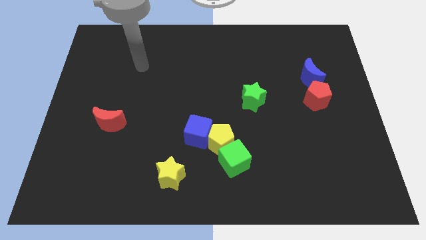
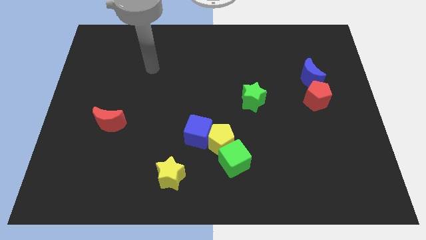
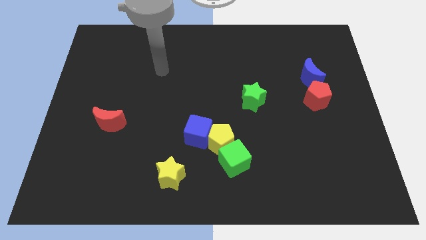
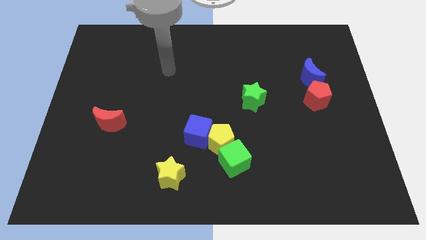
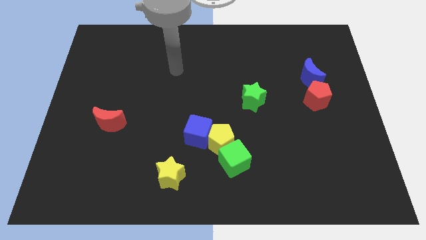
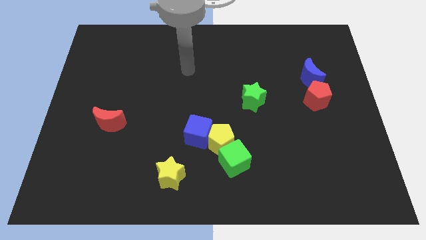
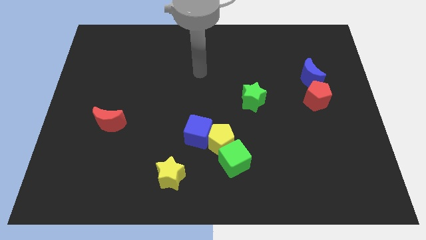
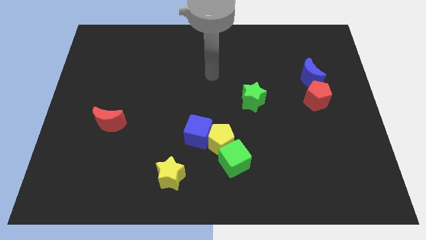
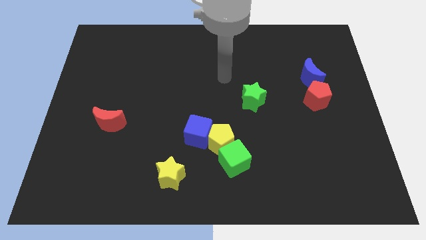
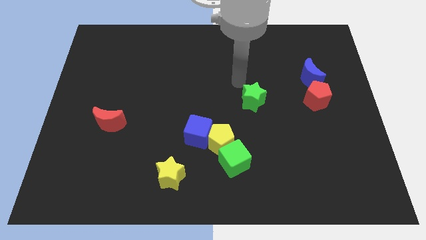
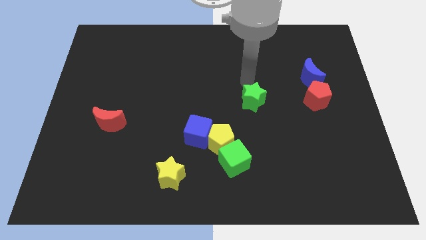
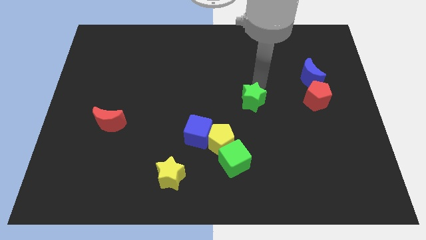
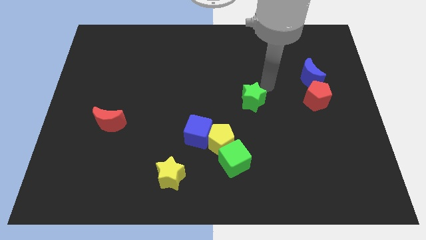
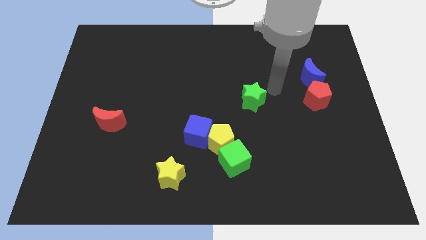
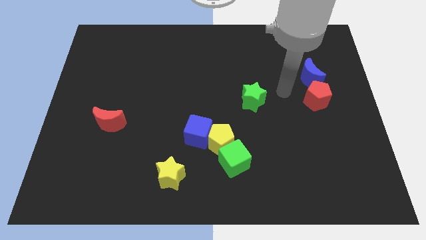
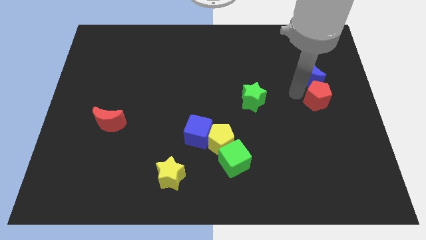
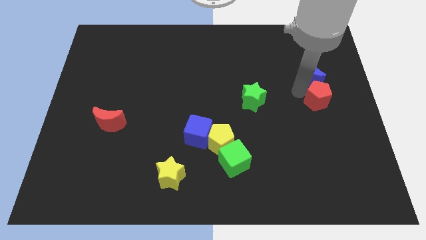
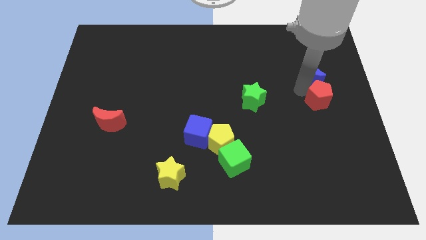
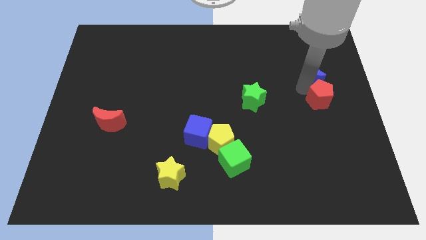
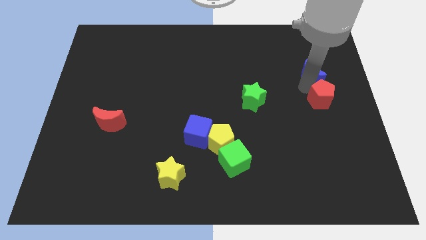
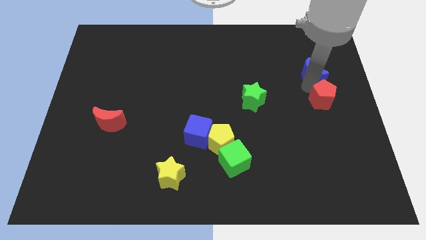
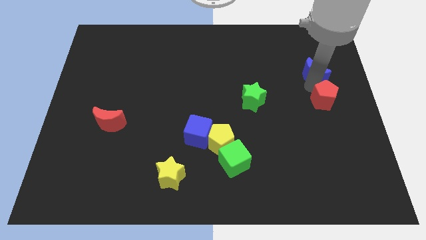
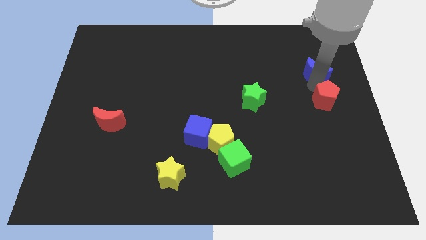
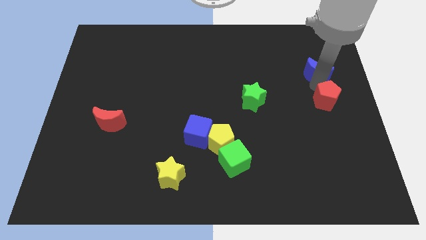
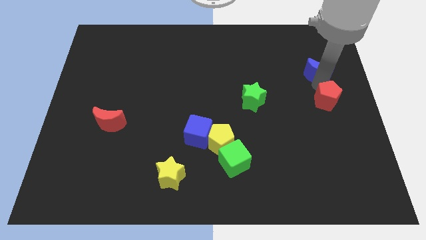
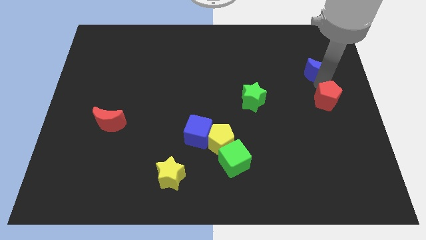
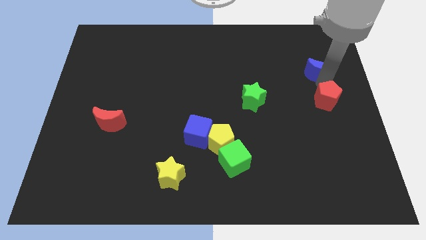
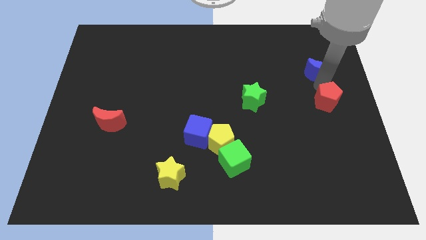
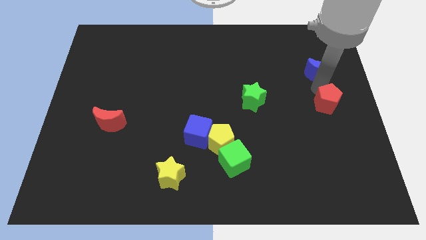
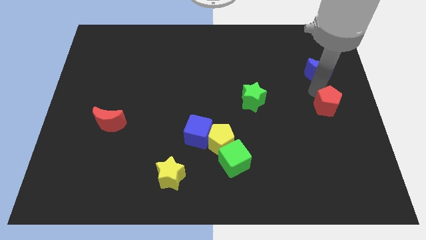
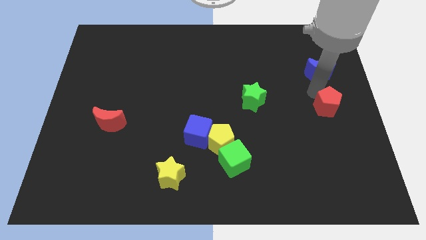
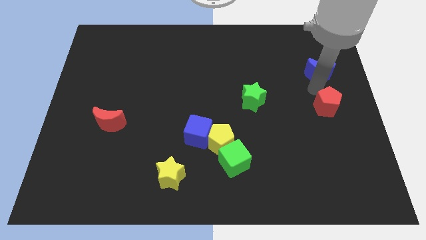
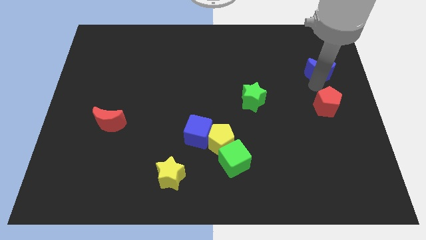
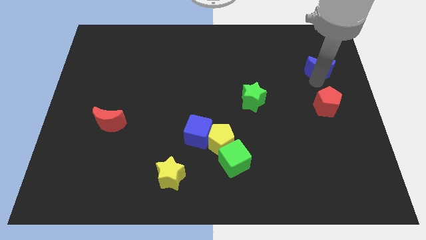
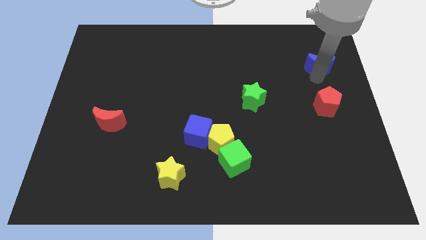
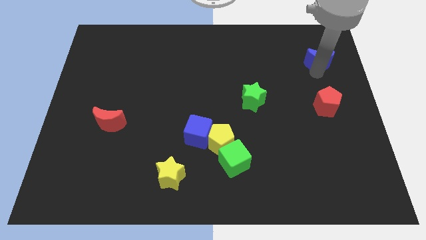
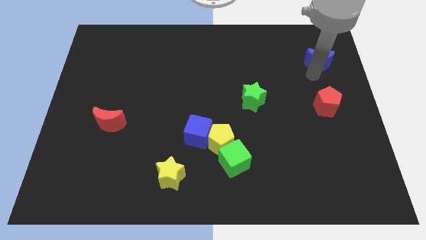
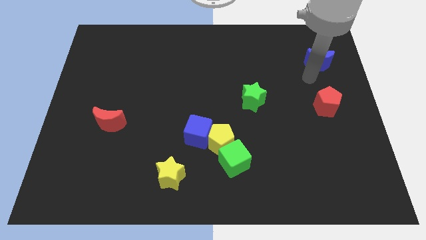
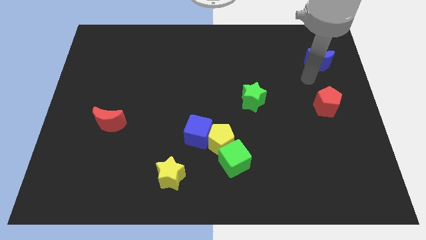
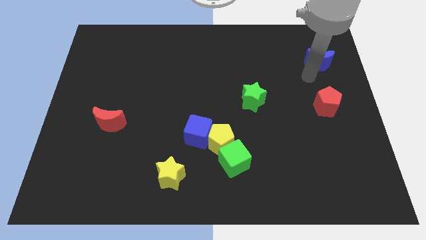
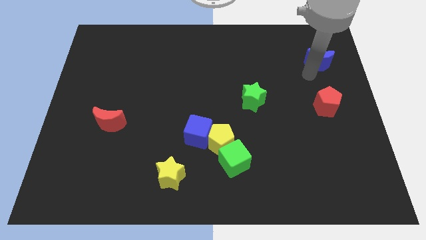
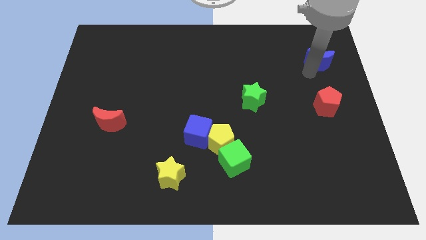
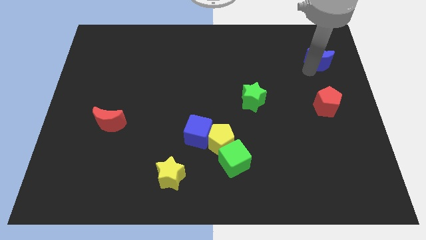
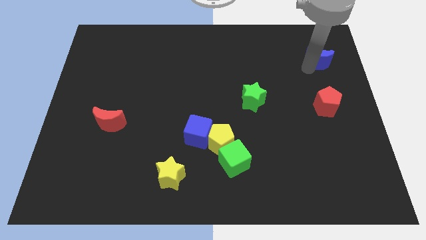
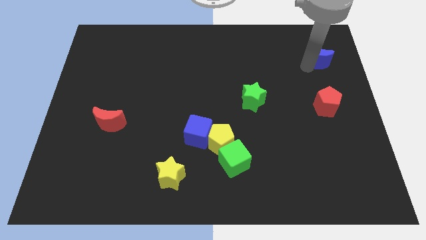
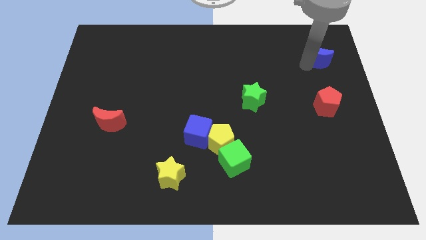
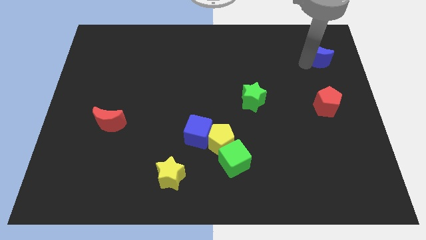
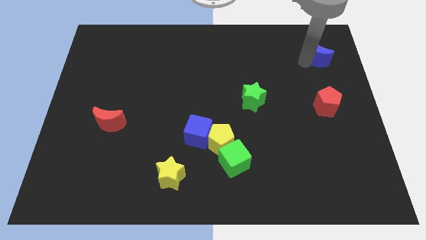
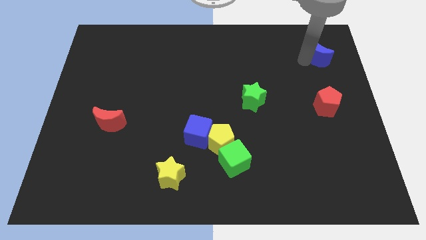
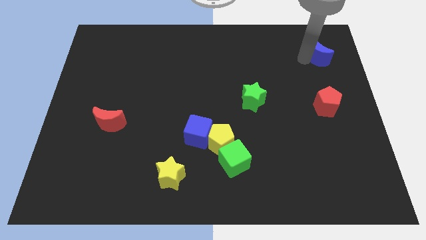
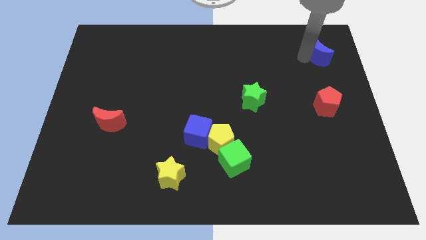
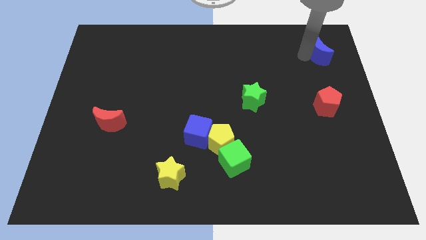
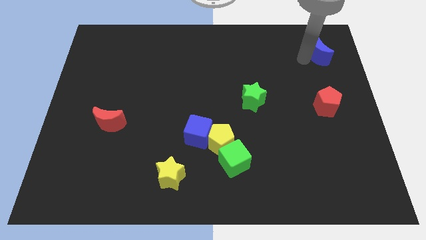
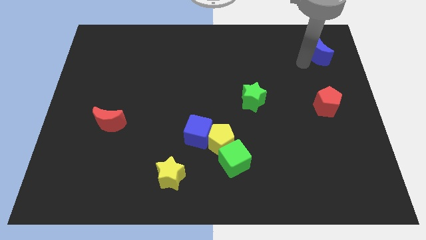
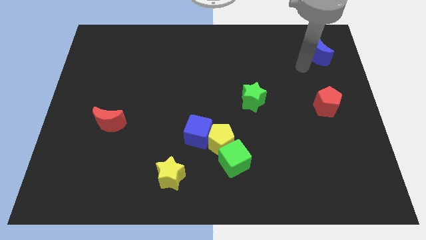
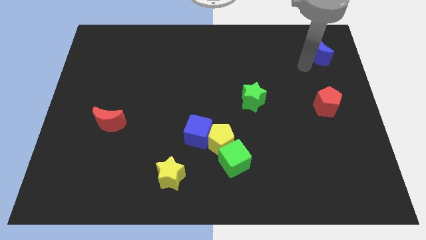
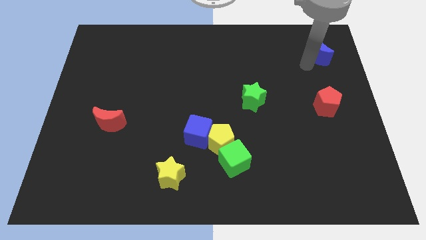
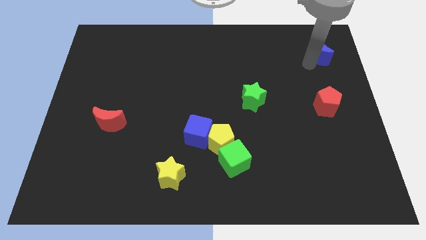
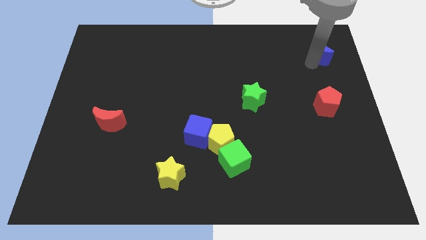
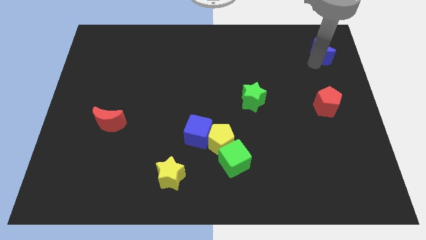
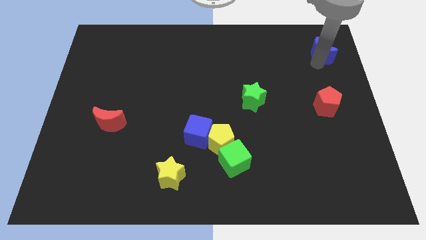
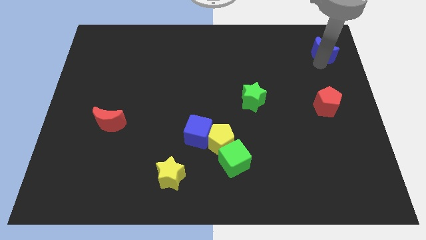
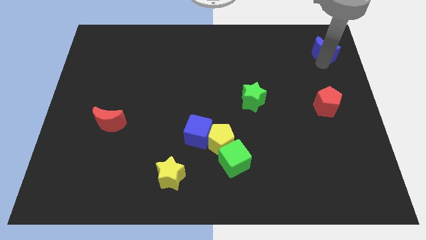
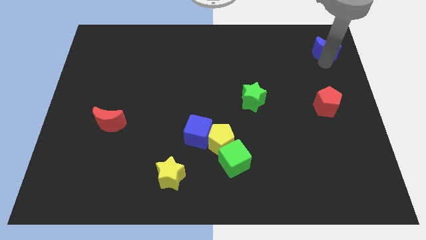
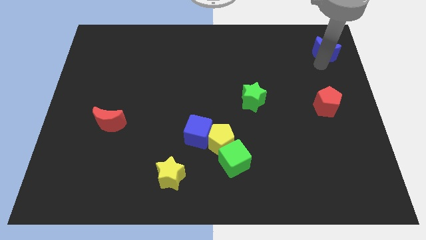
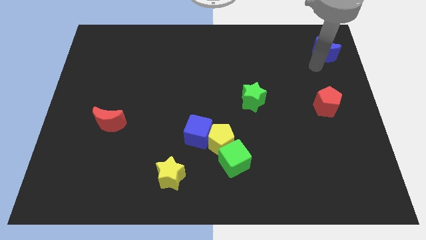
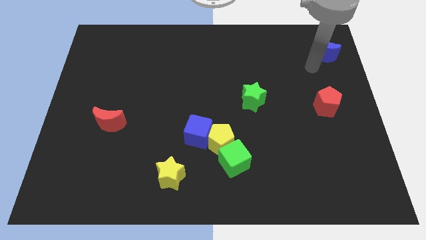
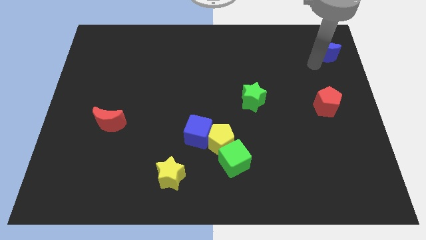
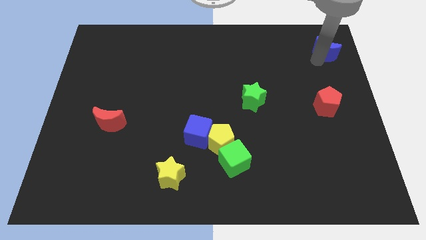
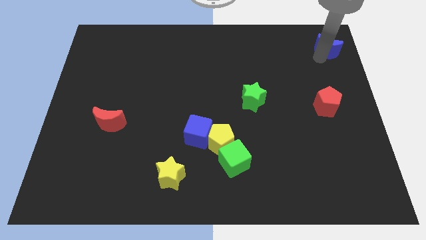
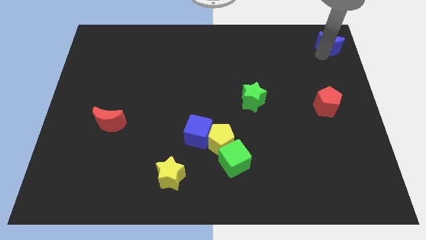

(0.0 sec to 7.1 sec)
put the blue moon to the top right of the board
